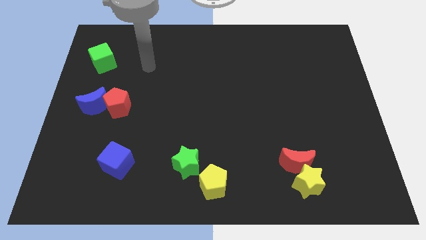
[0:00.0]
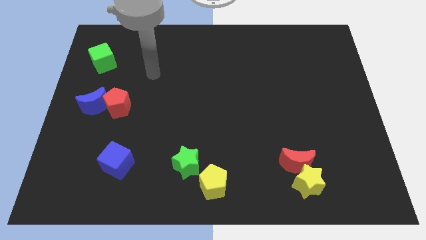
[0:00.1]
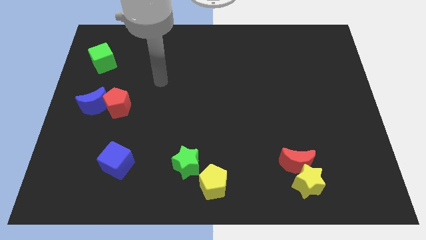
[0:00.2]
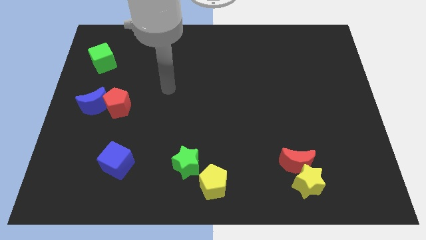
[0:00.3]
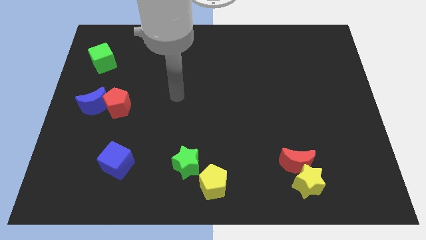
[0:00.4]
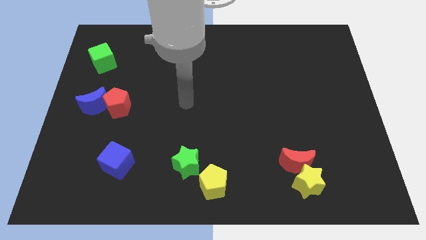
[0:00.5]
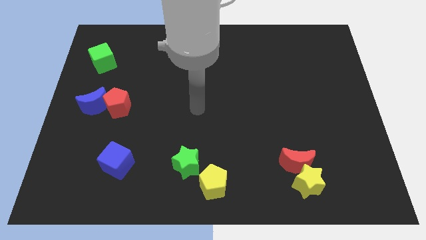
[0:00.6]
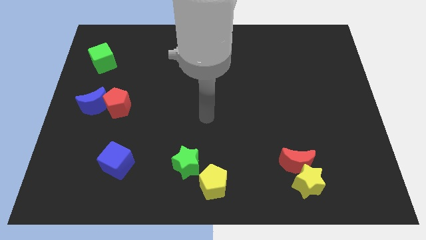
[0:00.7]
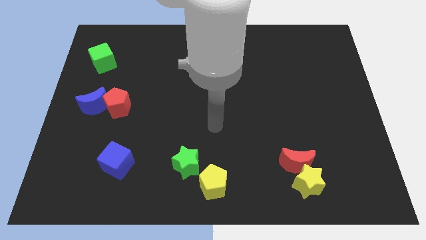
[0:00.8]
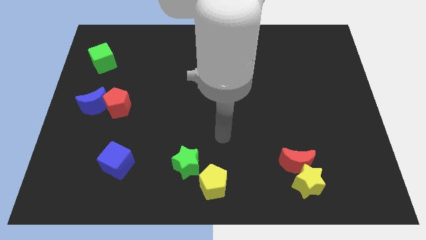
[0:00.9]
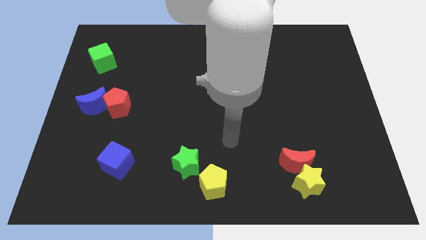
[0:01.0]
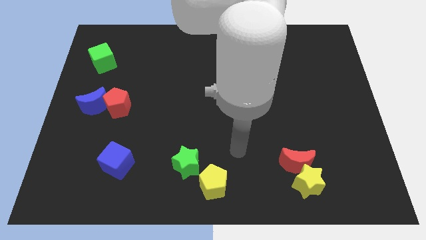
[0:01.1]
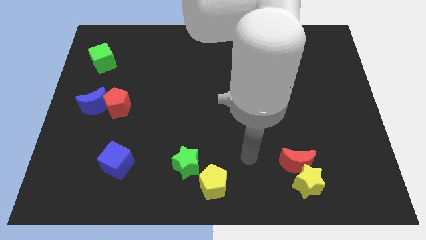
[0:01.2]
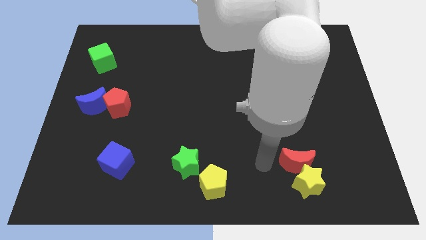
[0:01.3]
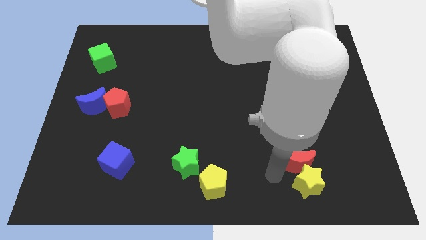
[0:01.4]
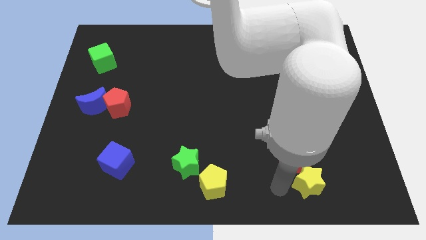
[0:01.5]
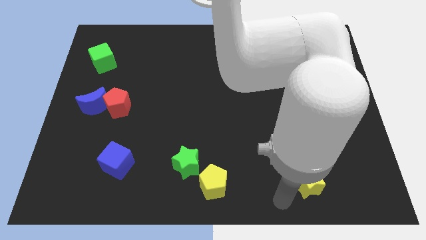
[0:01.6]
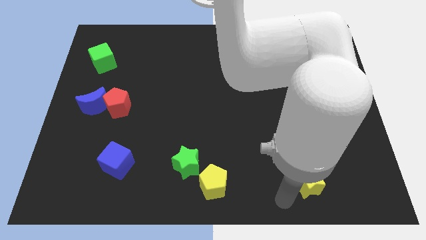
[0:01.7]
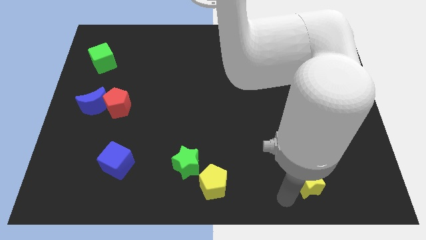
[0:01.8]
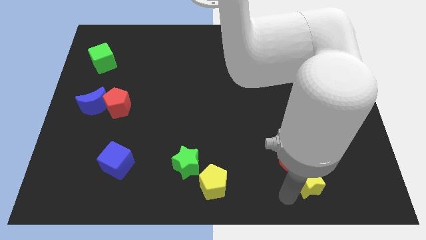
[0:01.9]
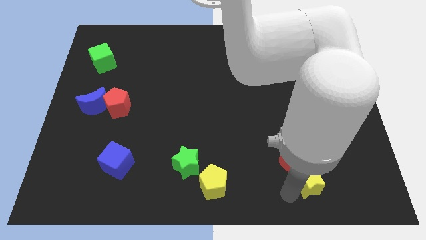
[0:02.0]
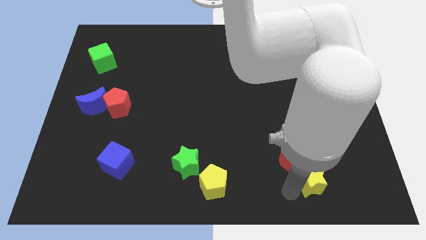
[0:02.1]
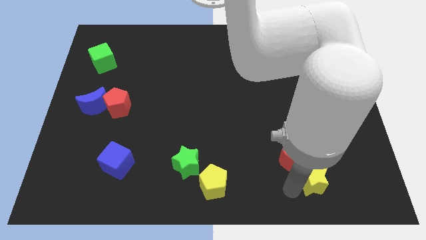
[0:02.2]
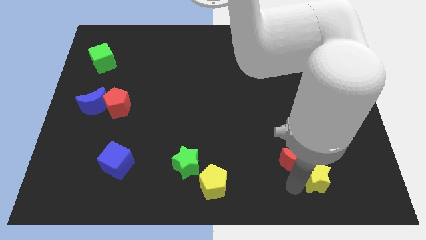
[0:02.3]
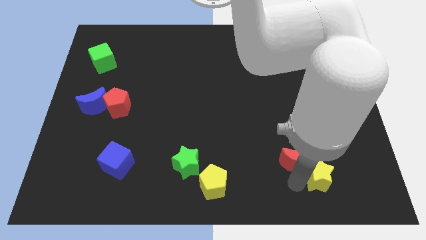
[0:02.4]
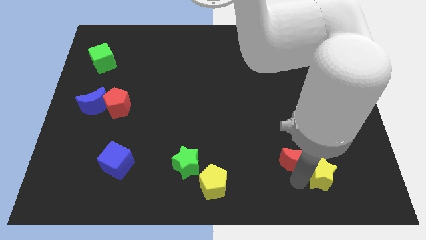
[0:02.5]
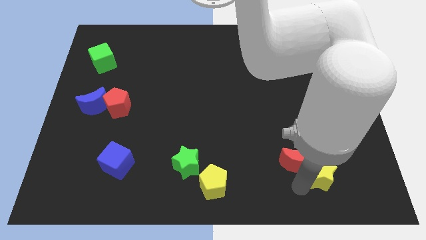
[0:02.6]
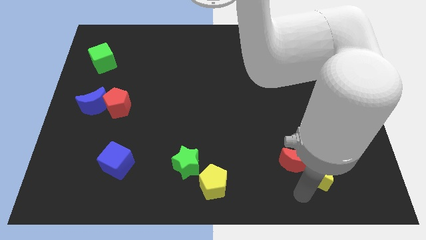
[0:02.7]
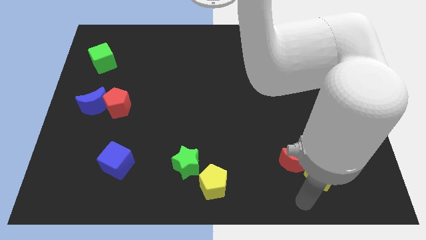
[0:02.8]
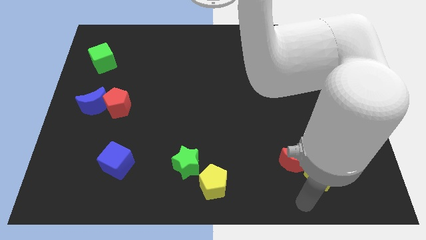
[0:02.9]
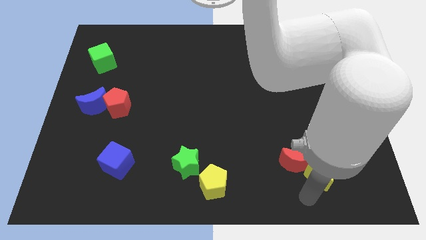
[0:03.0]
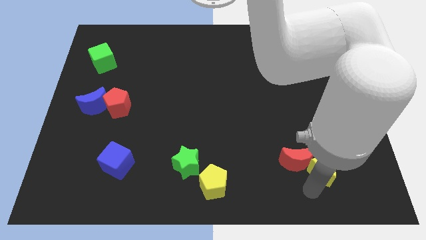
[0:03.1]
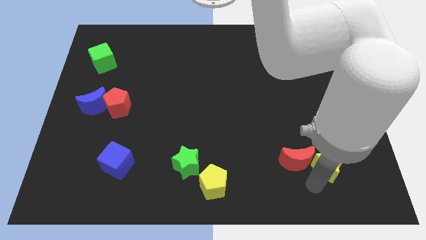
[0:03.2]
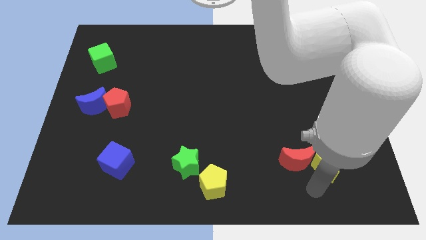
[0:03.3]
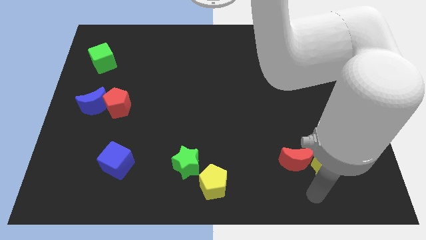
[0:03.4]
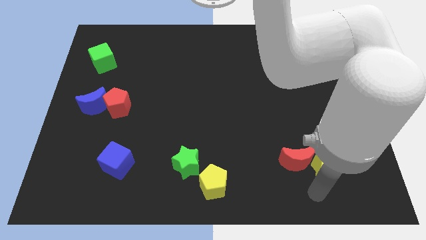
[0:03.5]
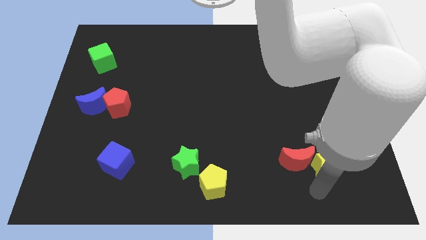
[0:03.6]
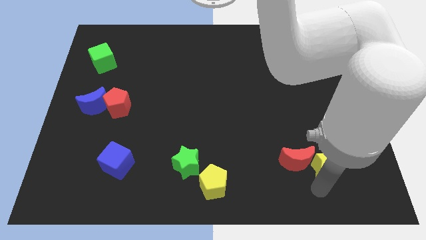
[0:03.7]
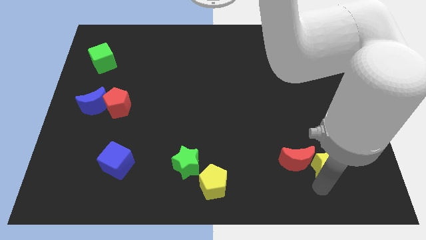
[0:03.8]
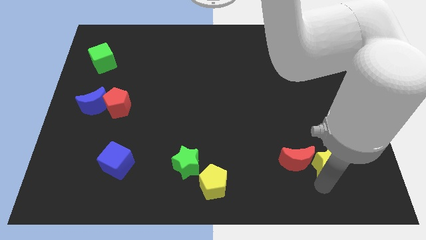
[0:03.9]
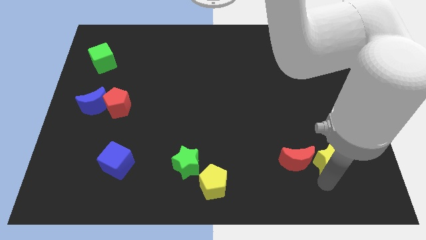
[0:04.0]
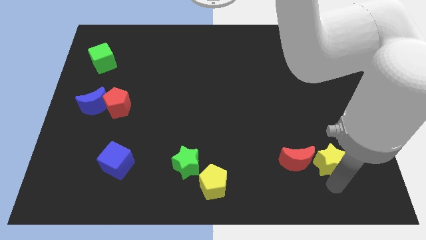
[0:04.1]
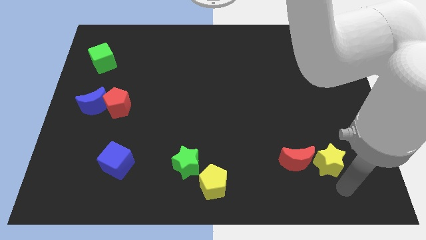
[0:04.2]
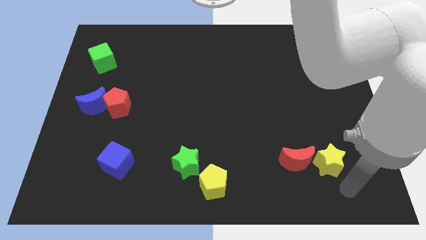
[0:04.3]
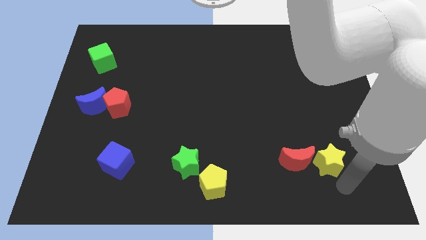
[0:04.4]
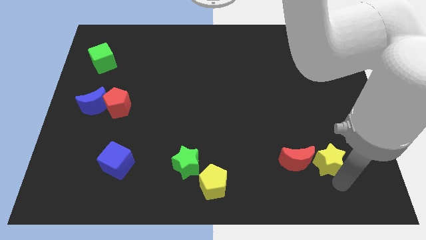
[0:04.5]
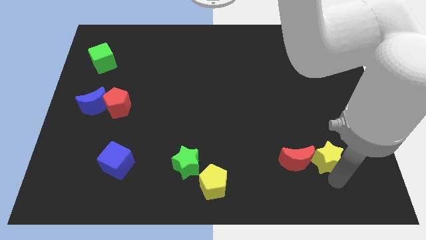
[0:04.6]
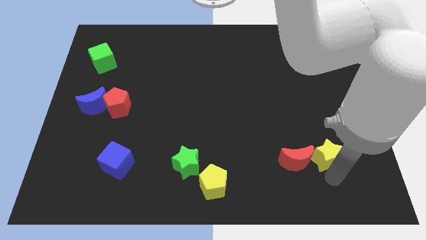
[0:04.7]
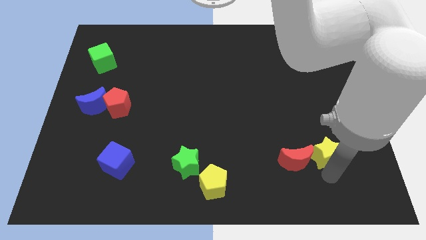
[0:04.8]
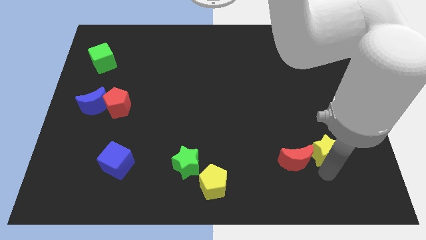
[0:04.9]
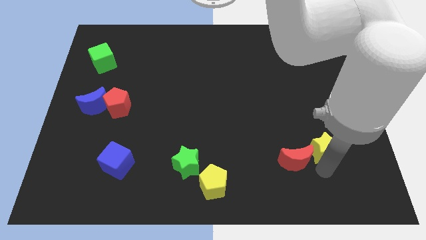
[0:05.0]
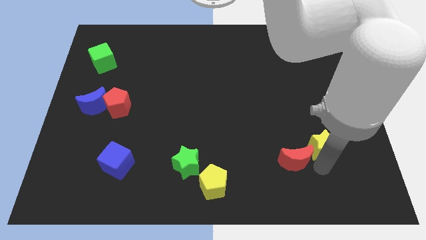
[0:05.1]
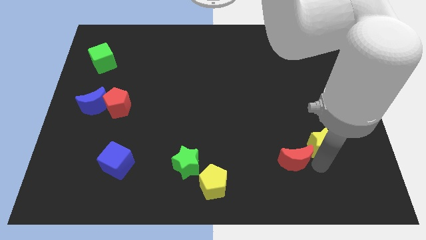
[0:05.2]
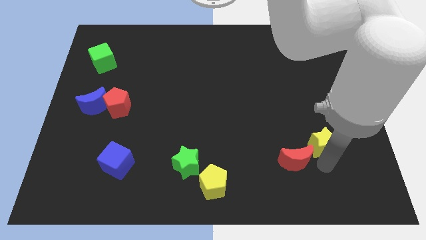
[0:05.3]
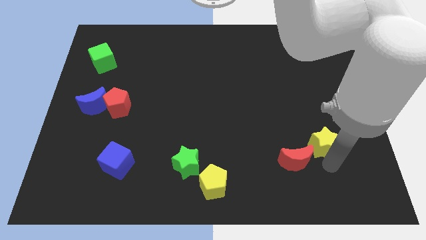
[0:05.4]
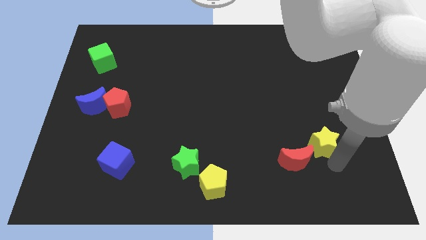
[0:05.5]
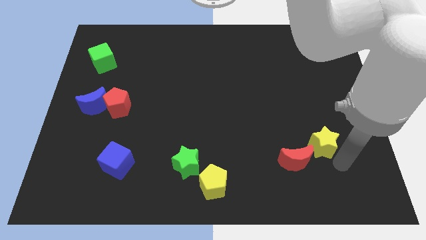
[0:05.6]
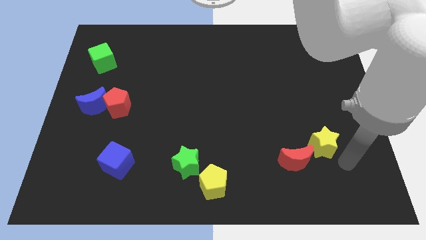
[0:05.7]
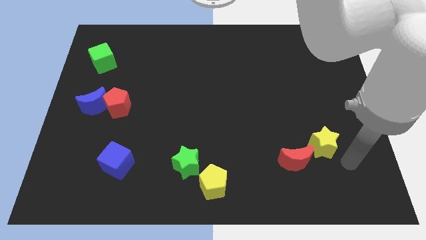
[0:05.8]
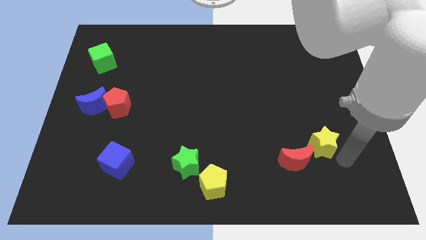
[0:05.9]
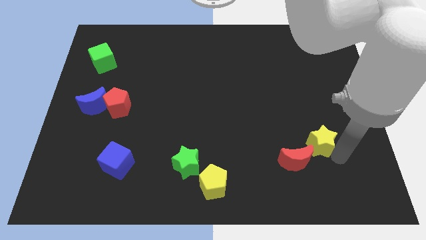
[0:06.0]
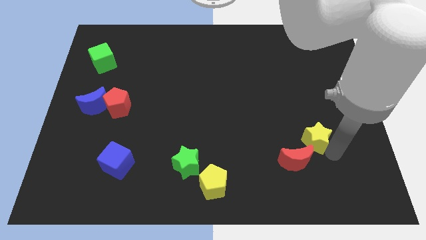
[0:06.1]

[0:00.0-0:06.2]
move the yellow star to the top of the red moon

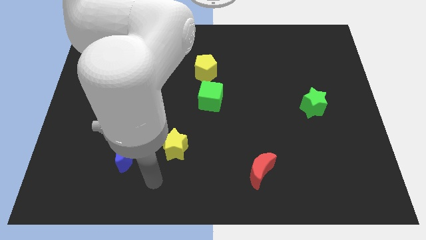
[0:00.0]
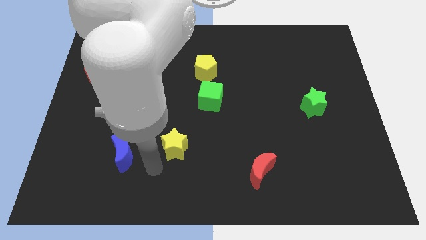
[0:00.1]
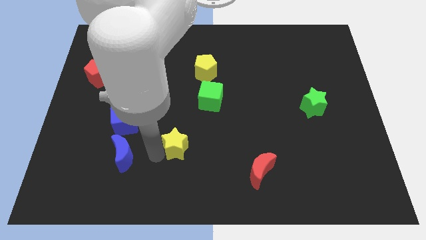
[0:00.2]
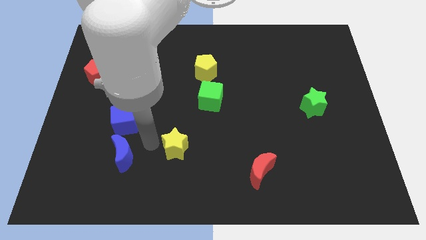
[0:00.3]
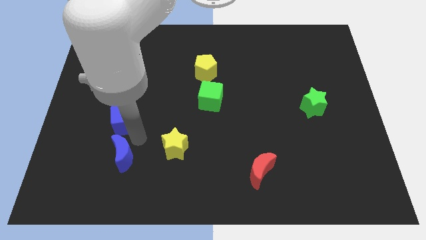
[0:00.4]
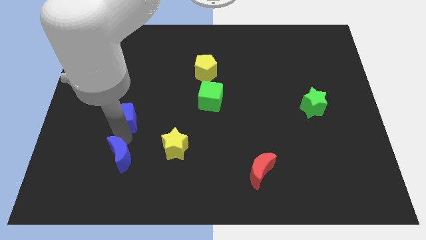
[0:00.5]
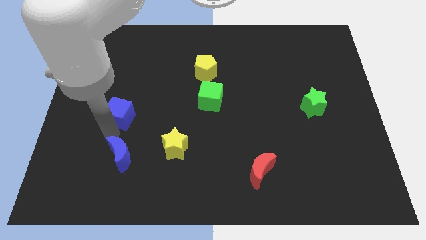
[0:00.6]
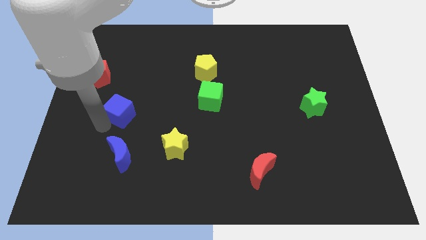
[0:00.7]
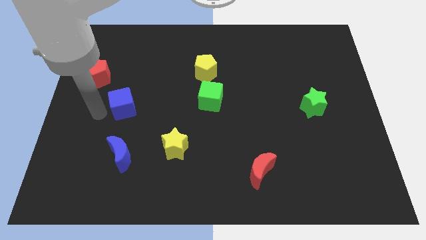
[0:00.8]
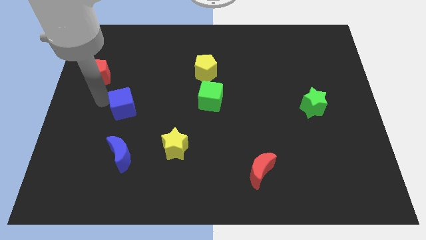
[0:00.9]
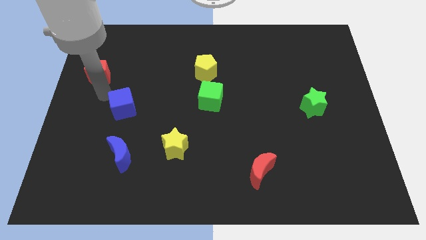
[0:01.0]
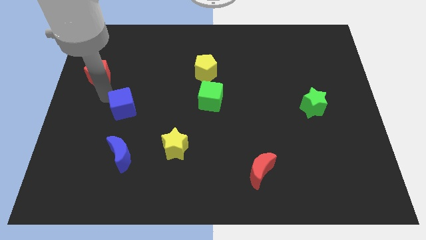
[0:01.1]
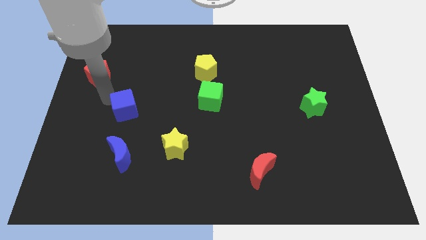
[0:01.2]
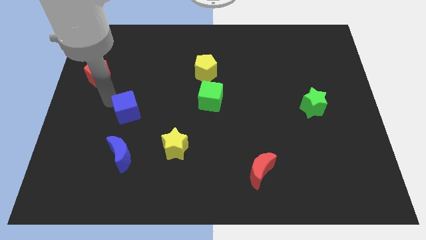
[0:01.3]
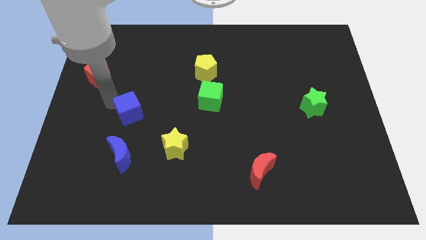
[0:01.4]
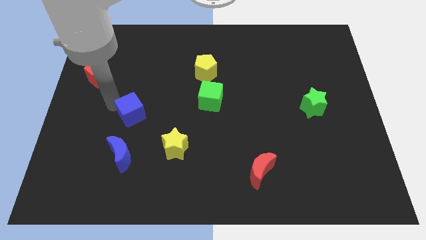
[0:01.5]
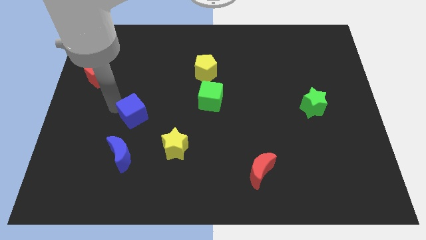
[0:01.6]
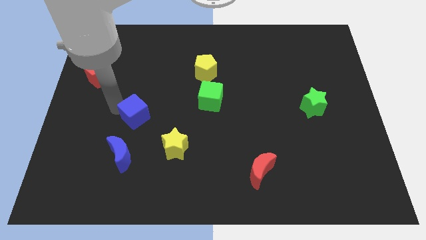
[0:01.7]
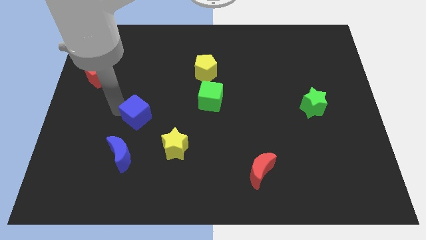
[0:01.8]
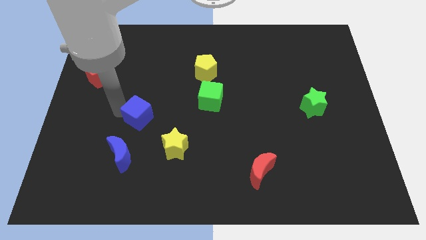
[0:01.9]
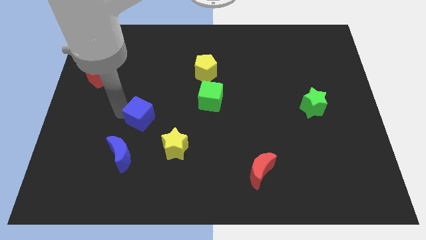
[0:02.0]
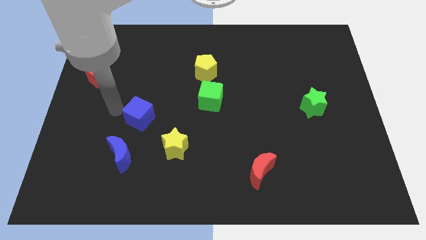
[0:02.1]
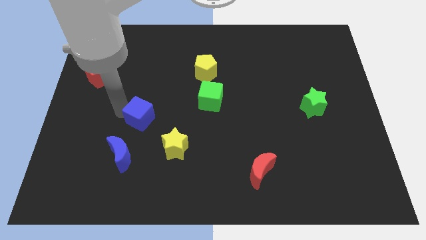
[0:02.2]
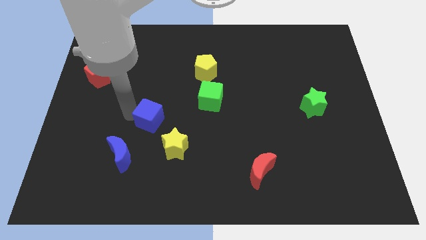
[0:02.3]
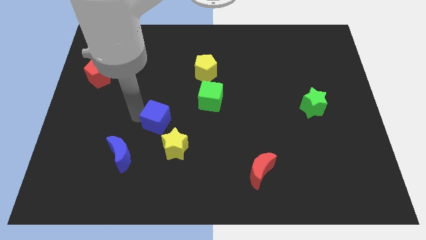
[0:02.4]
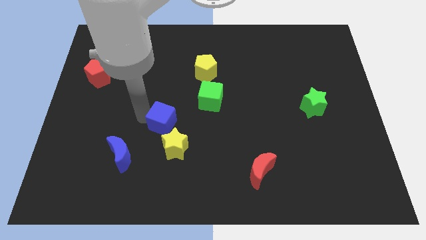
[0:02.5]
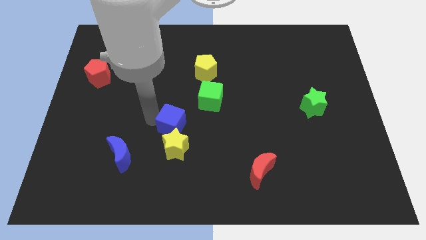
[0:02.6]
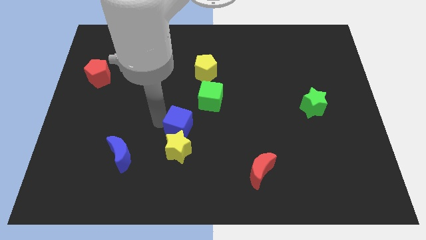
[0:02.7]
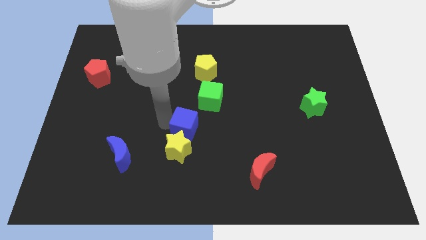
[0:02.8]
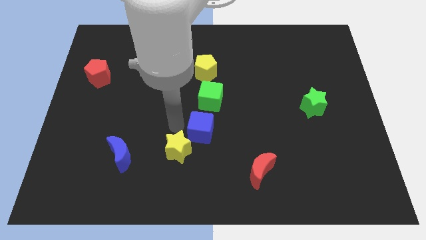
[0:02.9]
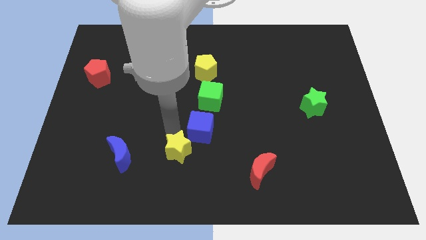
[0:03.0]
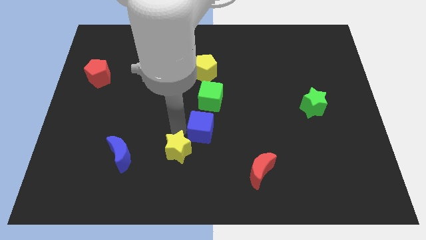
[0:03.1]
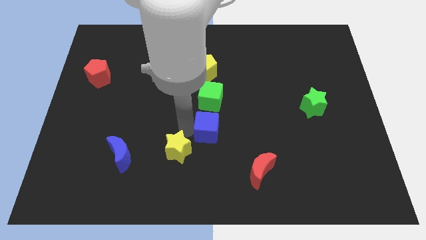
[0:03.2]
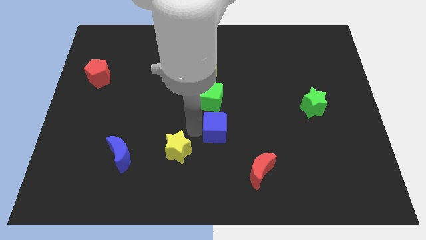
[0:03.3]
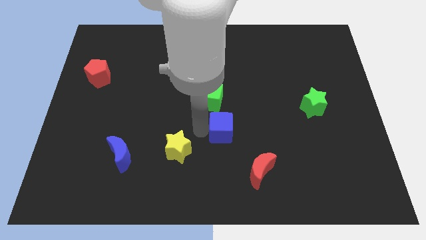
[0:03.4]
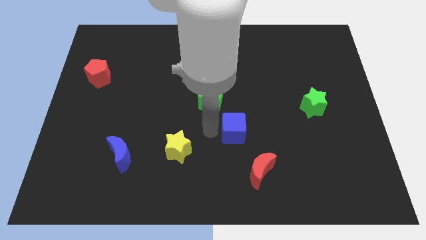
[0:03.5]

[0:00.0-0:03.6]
push the blue cube to the top side of the red moon
